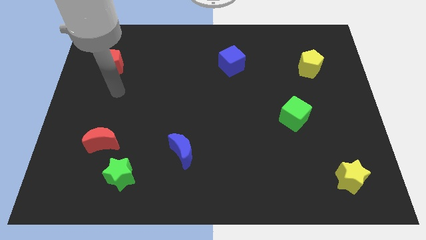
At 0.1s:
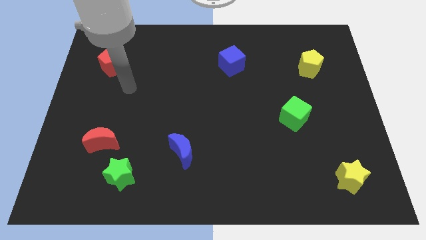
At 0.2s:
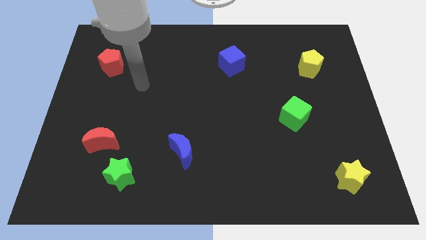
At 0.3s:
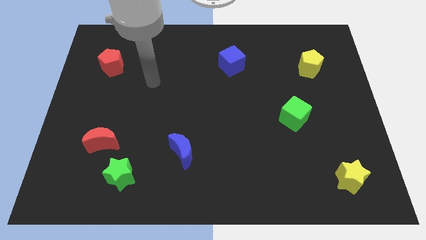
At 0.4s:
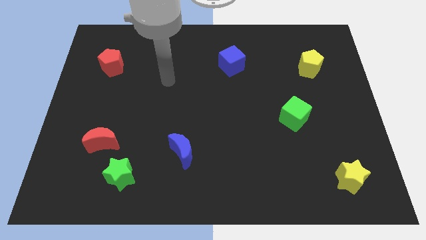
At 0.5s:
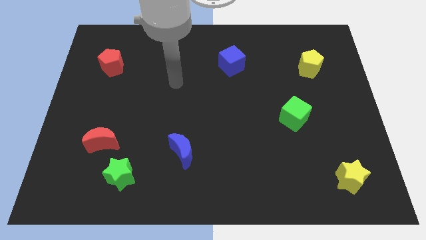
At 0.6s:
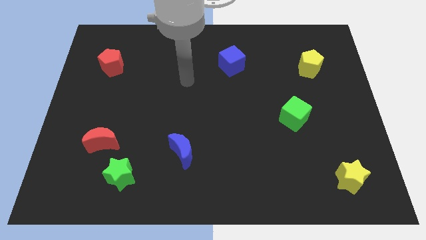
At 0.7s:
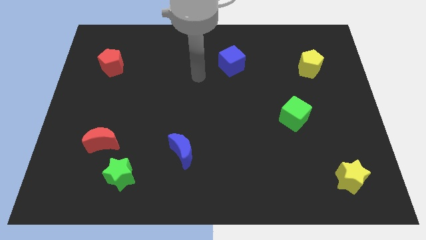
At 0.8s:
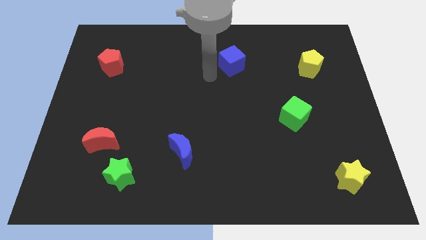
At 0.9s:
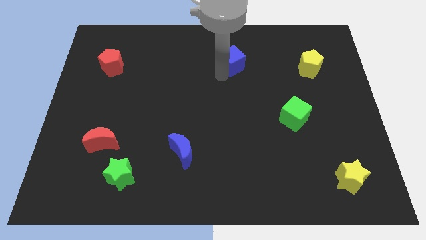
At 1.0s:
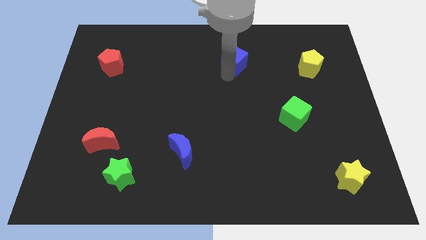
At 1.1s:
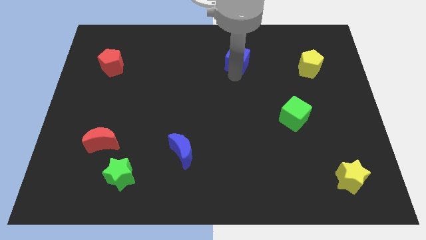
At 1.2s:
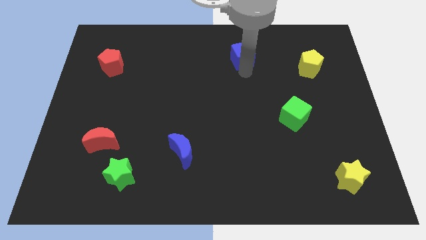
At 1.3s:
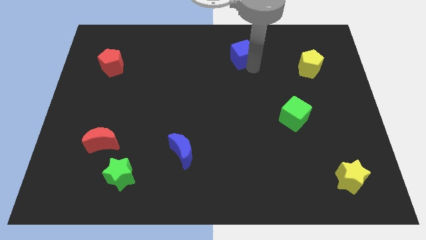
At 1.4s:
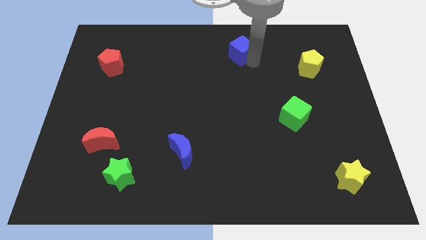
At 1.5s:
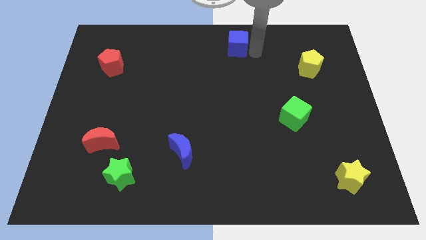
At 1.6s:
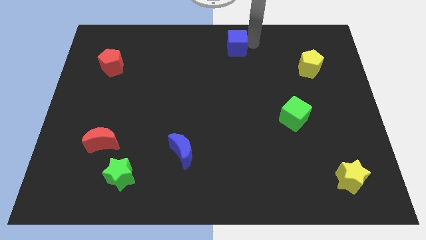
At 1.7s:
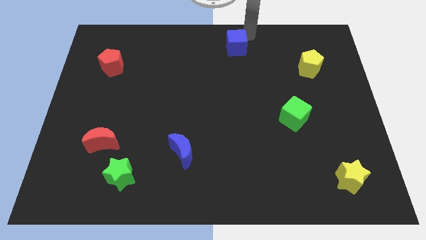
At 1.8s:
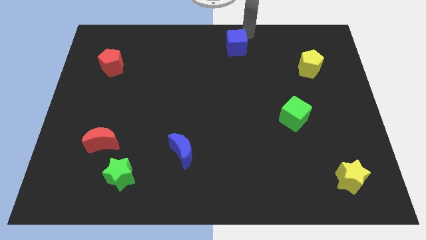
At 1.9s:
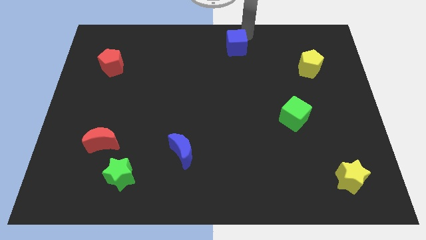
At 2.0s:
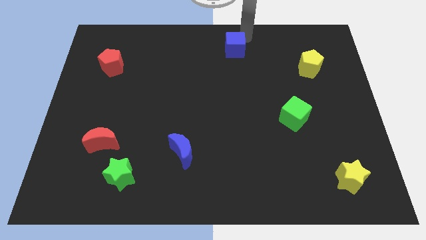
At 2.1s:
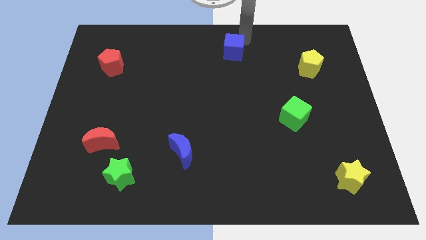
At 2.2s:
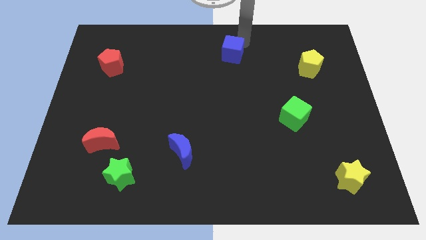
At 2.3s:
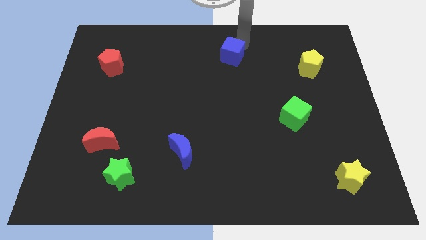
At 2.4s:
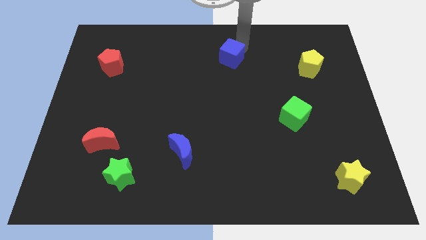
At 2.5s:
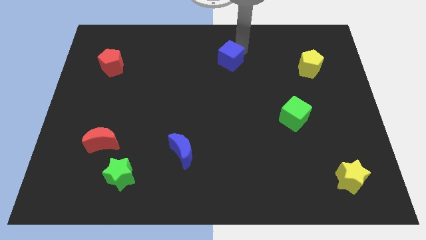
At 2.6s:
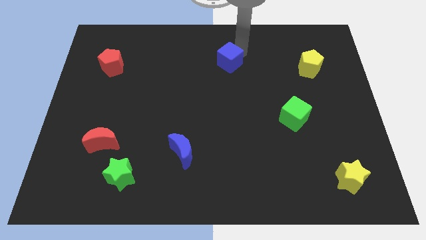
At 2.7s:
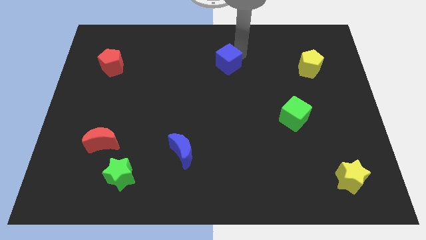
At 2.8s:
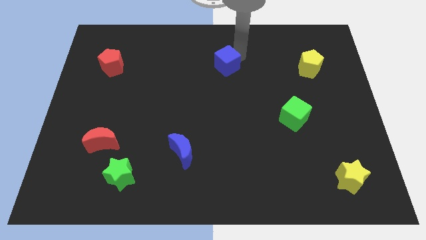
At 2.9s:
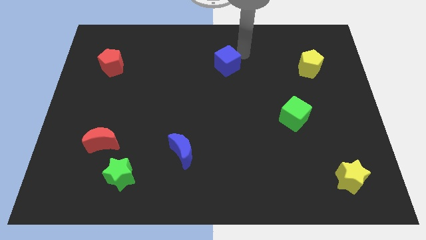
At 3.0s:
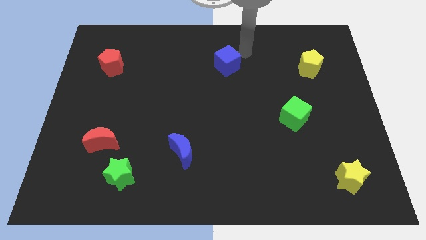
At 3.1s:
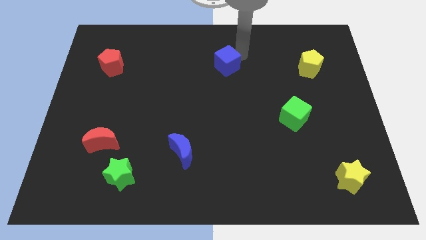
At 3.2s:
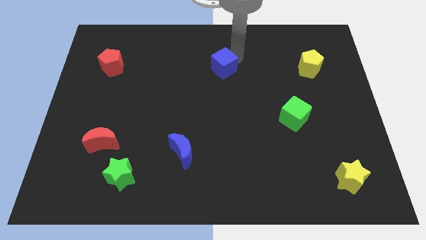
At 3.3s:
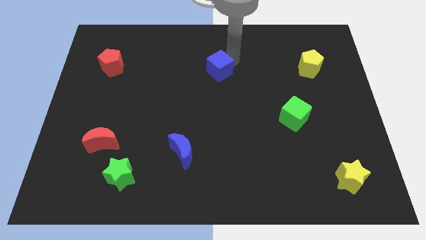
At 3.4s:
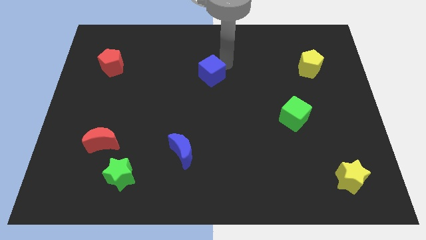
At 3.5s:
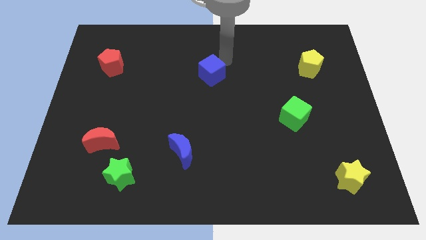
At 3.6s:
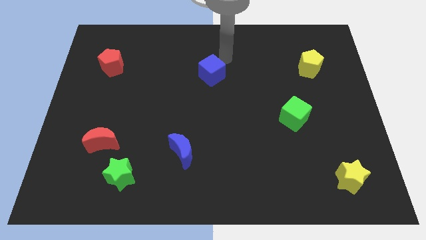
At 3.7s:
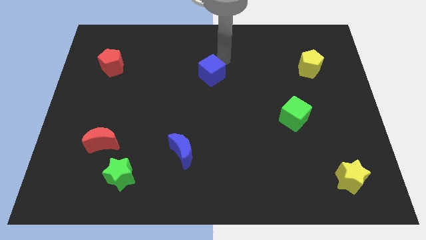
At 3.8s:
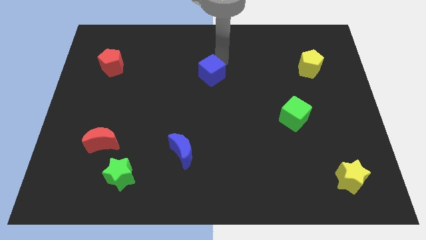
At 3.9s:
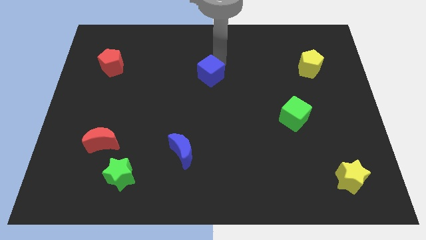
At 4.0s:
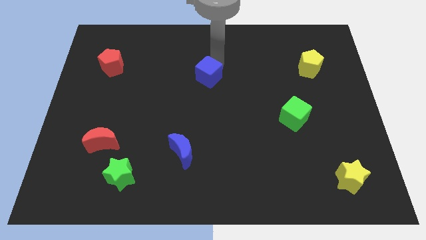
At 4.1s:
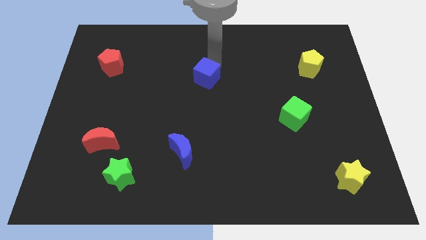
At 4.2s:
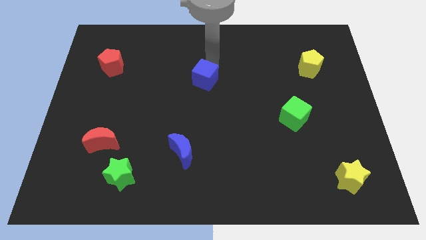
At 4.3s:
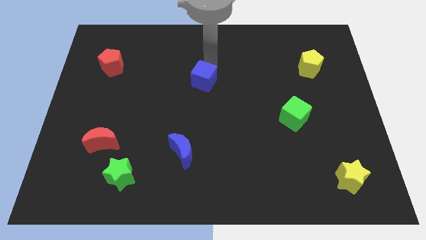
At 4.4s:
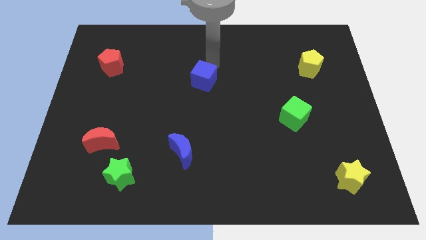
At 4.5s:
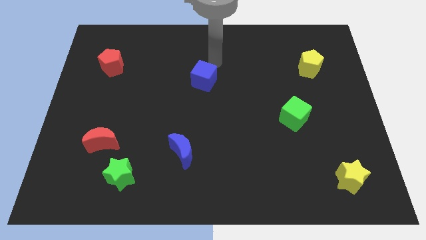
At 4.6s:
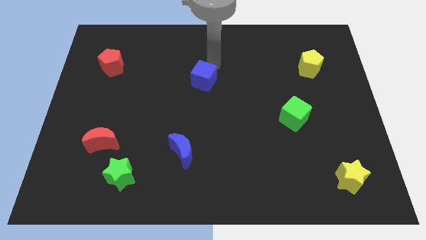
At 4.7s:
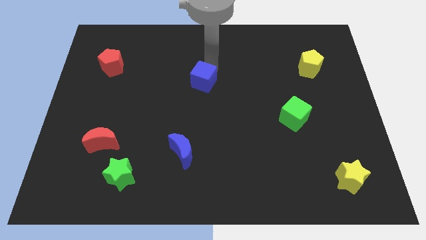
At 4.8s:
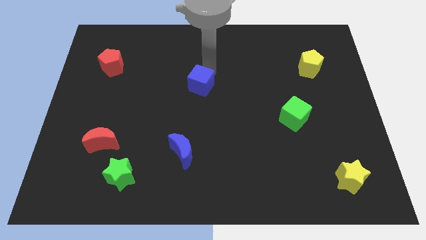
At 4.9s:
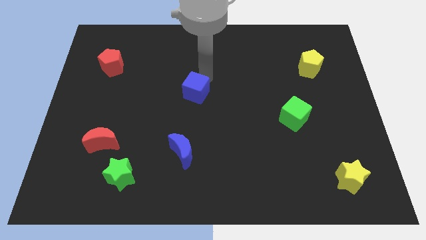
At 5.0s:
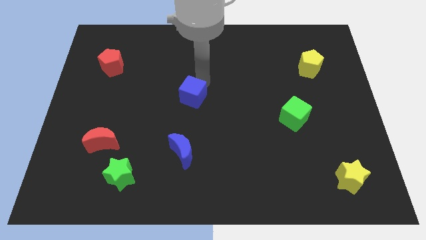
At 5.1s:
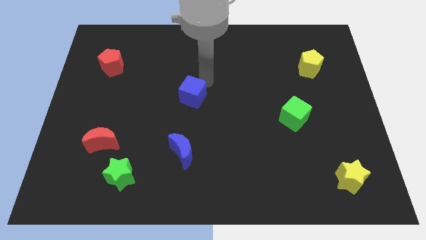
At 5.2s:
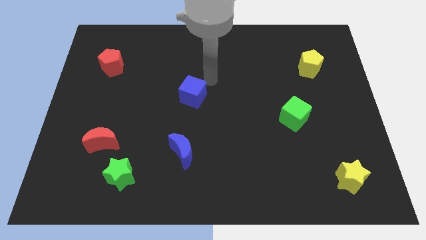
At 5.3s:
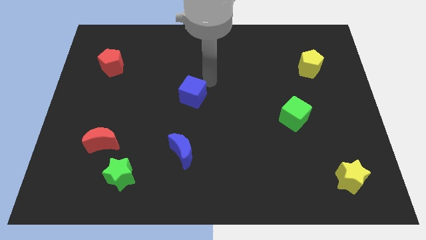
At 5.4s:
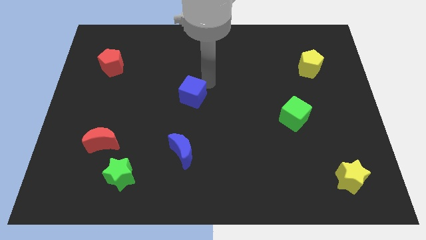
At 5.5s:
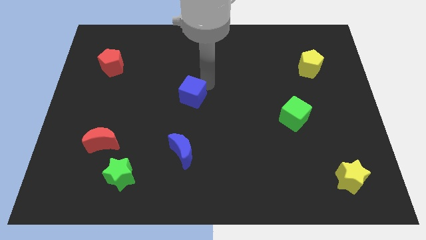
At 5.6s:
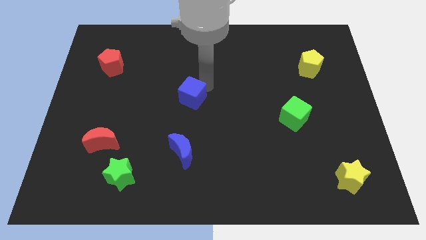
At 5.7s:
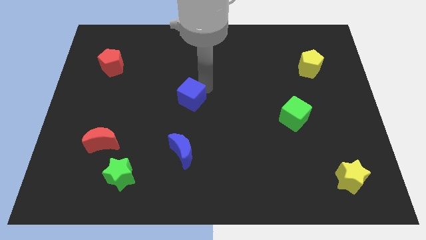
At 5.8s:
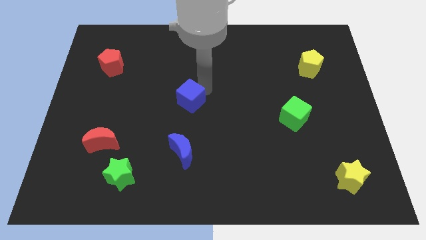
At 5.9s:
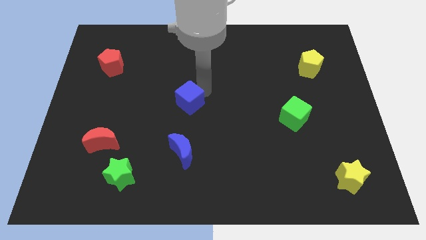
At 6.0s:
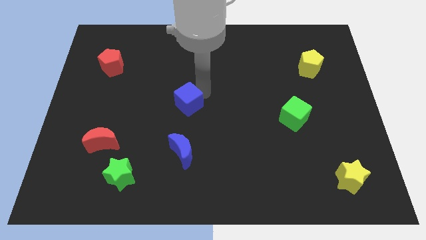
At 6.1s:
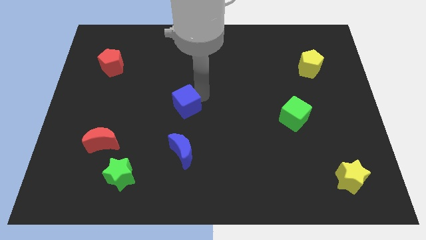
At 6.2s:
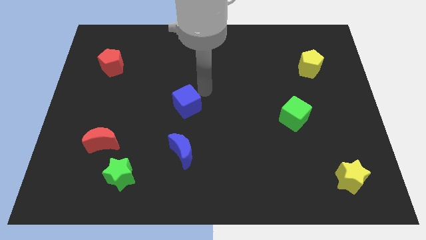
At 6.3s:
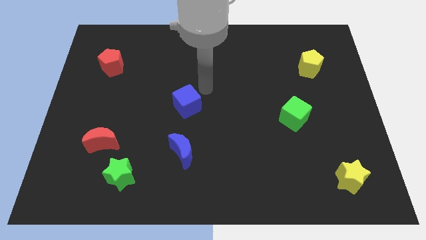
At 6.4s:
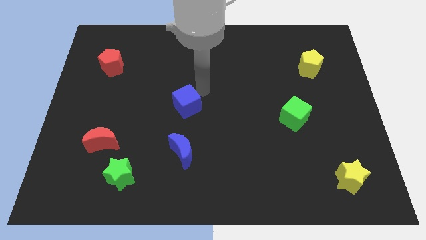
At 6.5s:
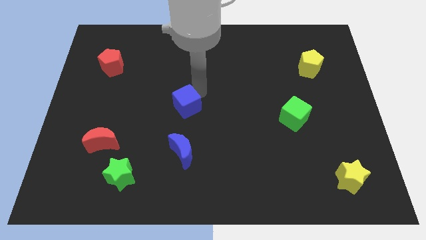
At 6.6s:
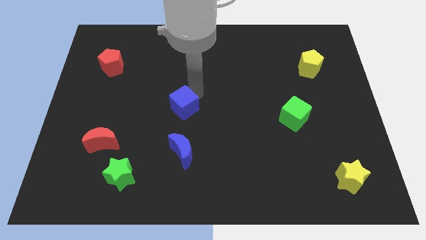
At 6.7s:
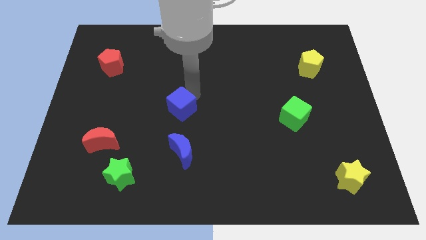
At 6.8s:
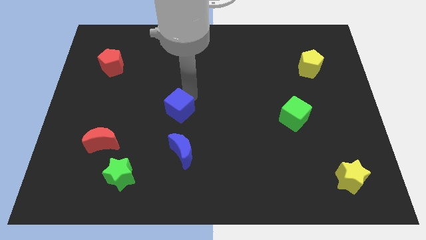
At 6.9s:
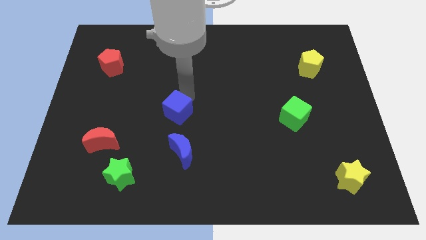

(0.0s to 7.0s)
move the blue cube diagonally down and to the left

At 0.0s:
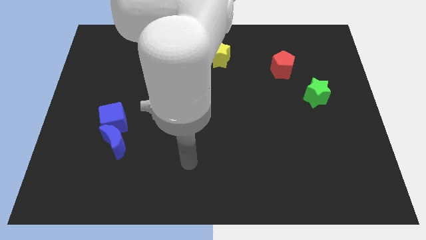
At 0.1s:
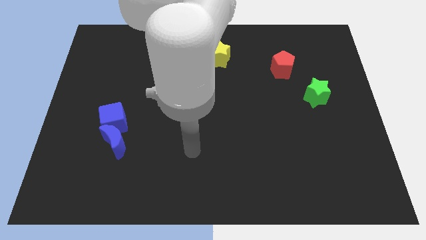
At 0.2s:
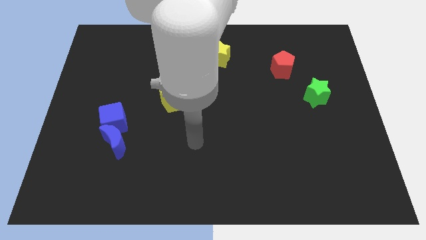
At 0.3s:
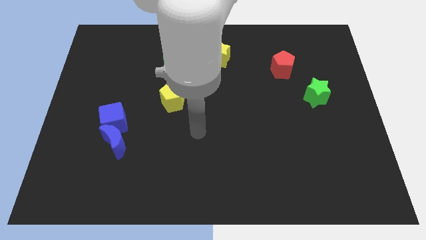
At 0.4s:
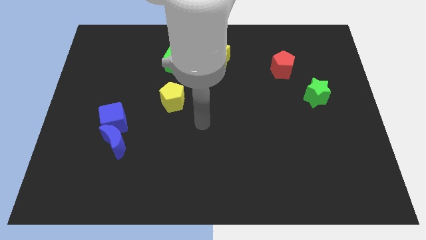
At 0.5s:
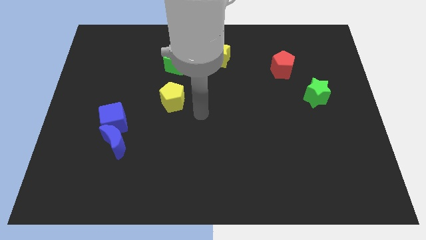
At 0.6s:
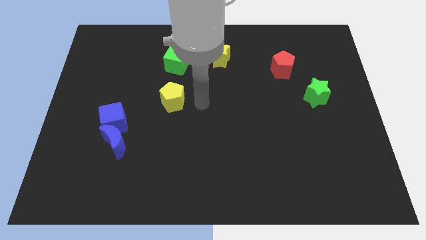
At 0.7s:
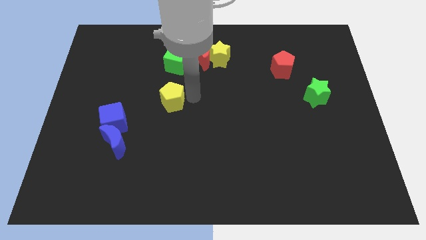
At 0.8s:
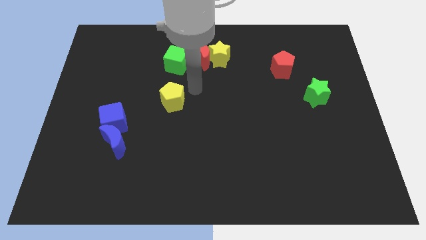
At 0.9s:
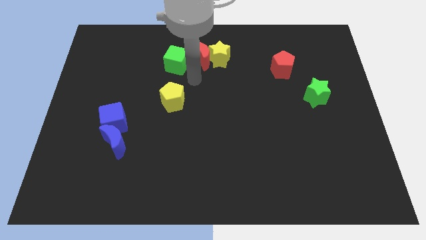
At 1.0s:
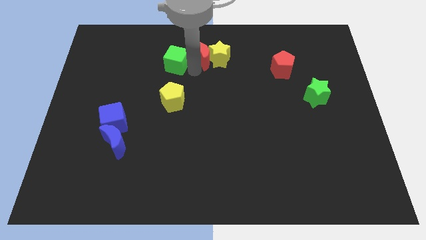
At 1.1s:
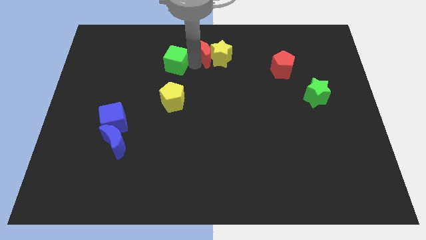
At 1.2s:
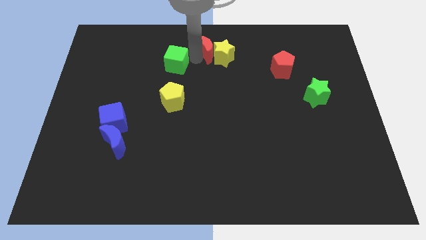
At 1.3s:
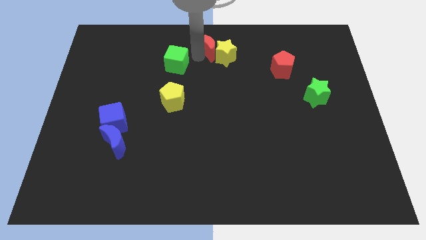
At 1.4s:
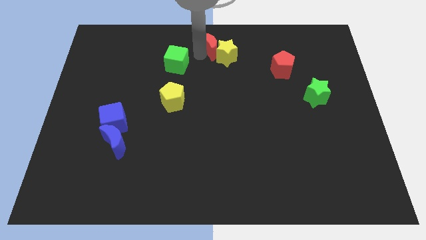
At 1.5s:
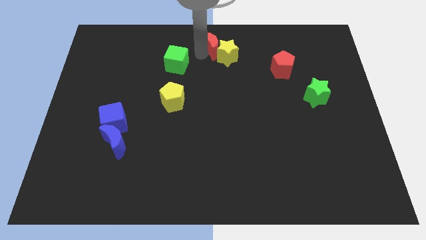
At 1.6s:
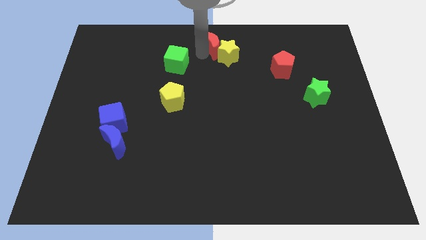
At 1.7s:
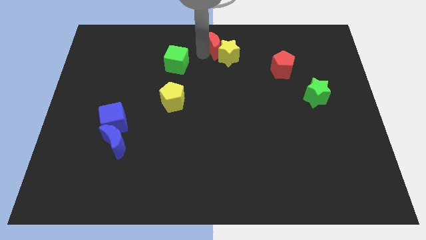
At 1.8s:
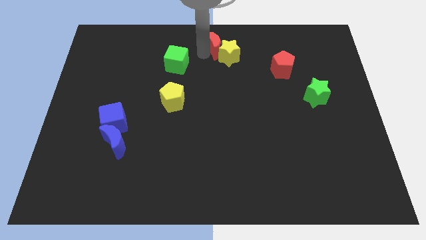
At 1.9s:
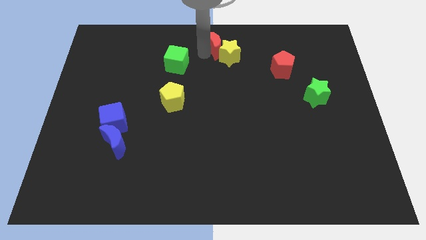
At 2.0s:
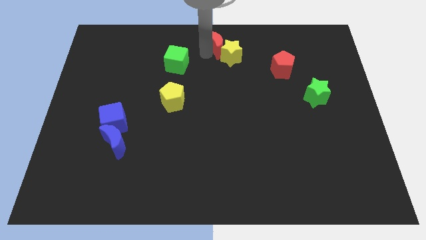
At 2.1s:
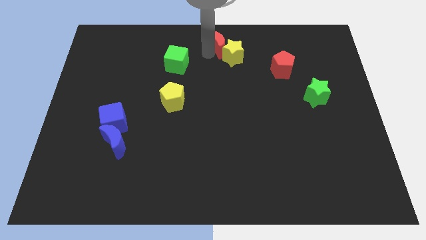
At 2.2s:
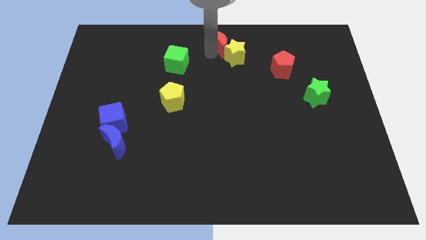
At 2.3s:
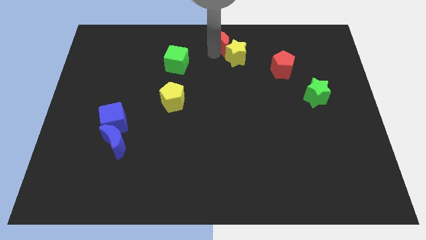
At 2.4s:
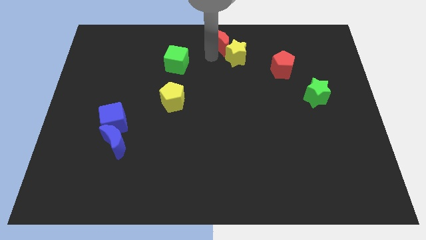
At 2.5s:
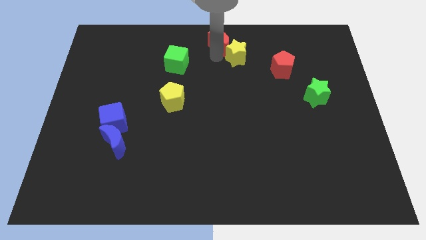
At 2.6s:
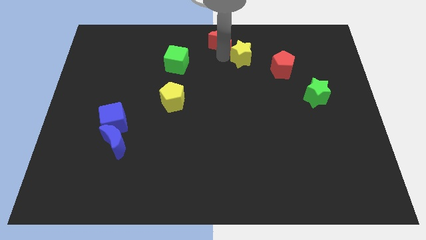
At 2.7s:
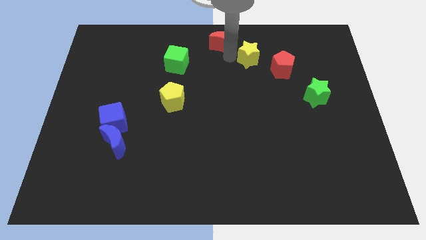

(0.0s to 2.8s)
move the yellow star to the right a bit
